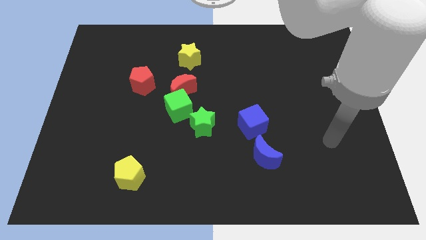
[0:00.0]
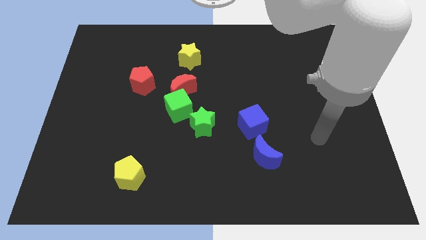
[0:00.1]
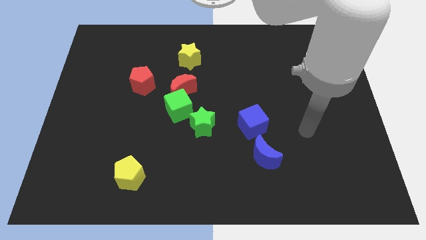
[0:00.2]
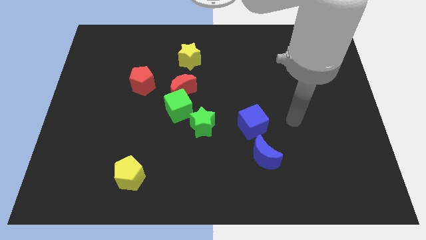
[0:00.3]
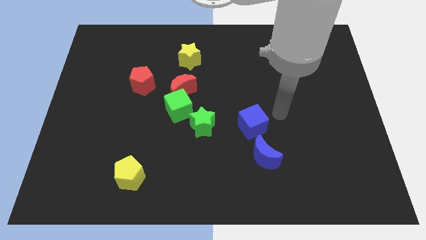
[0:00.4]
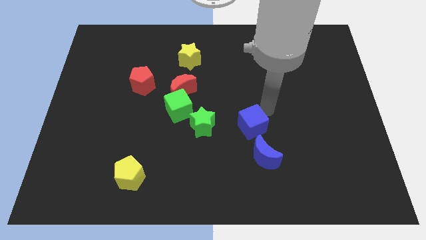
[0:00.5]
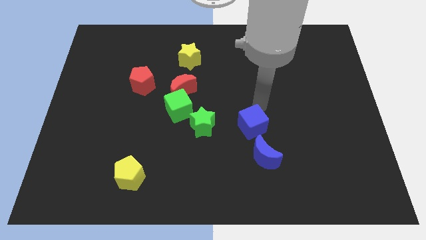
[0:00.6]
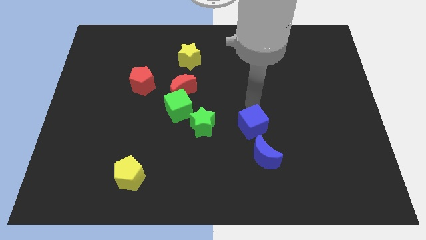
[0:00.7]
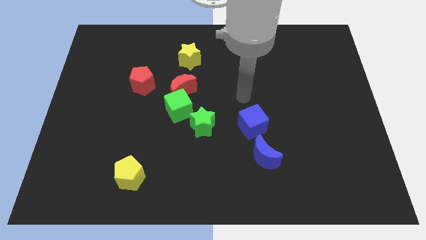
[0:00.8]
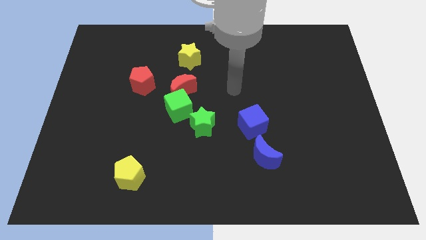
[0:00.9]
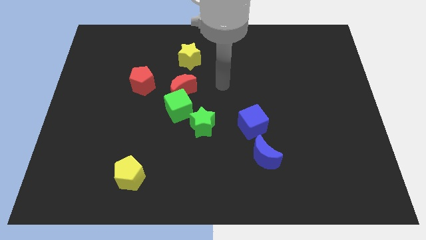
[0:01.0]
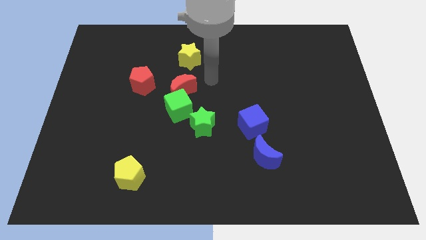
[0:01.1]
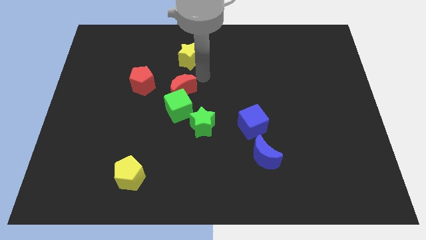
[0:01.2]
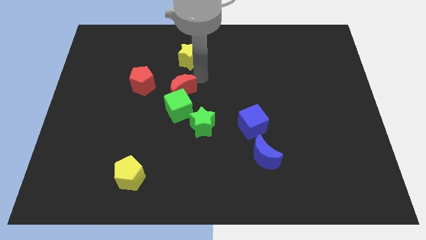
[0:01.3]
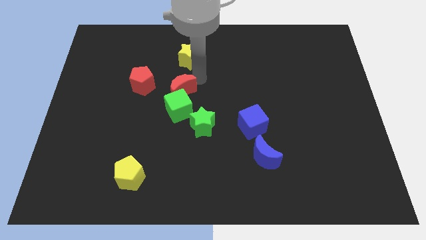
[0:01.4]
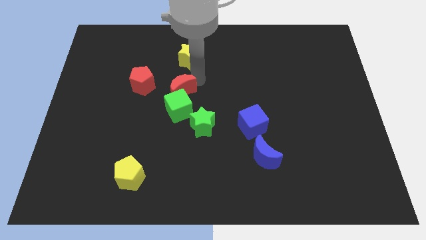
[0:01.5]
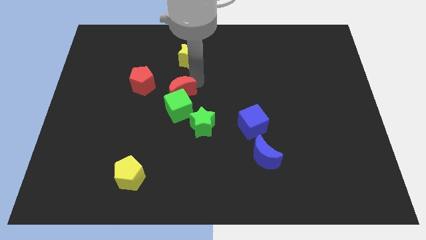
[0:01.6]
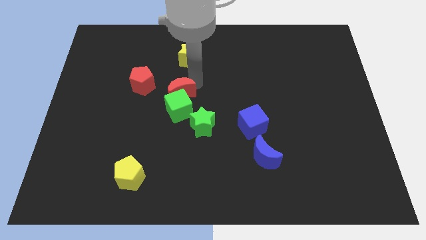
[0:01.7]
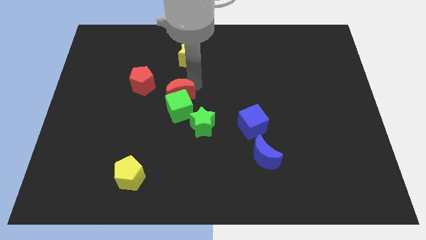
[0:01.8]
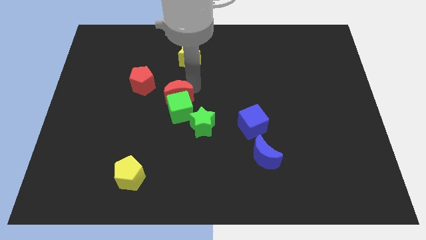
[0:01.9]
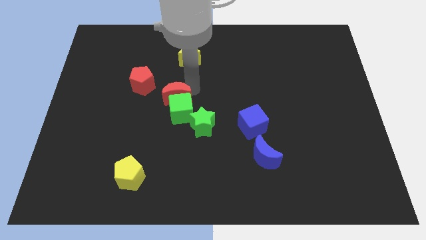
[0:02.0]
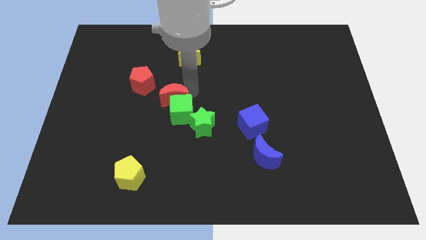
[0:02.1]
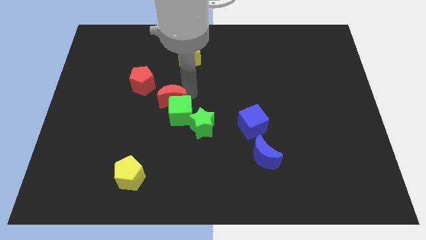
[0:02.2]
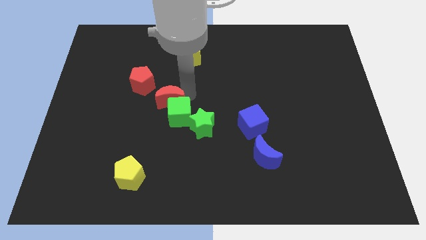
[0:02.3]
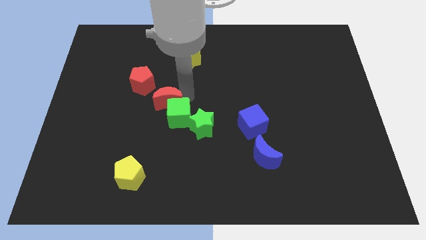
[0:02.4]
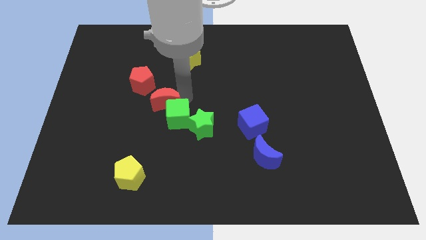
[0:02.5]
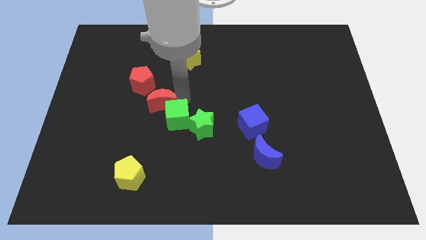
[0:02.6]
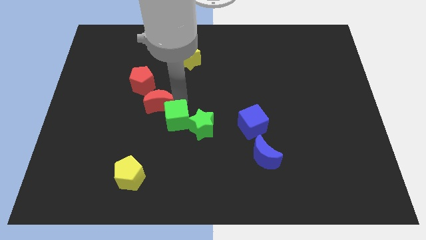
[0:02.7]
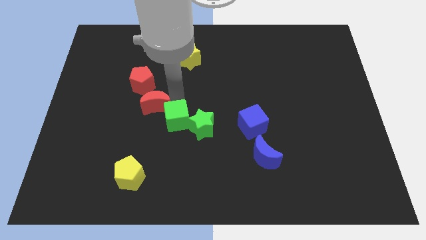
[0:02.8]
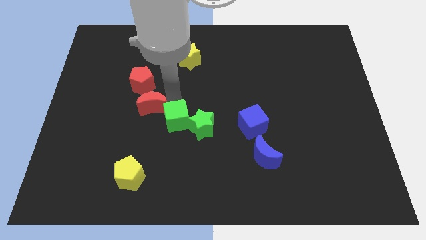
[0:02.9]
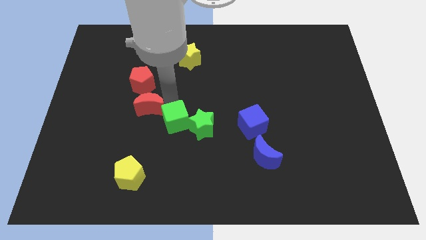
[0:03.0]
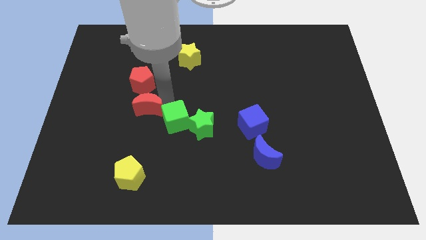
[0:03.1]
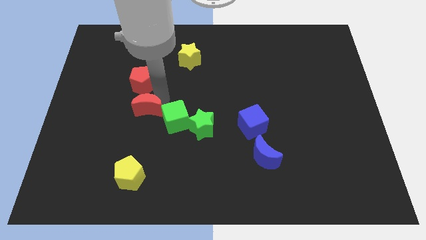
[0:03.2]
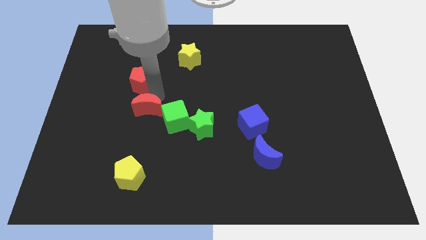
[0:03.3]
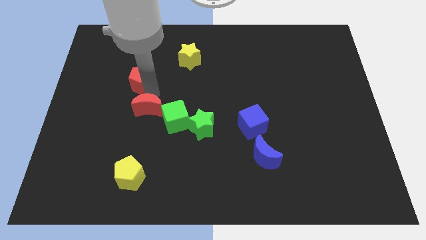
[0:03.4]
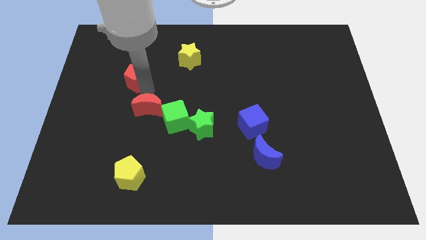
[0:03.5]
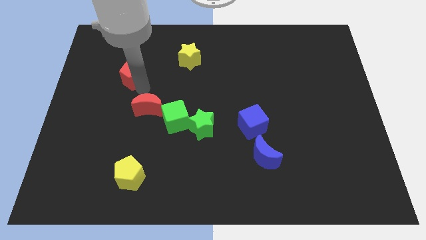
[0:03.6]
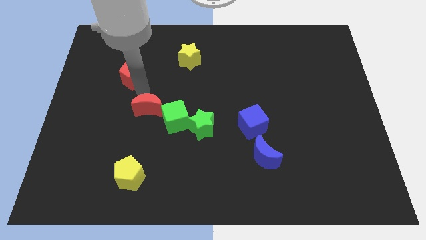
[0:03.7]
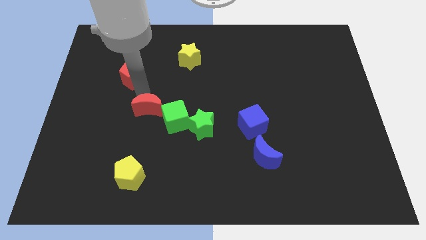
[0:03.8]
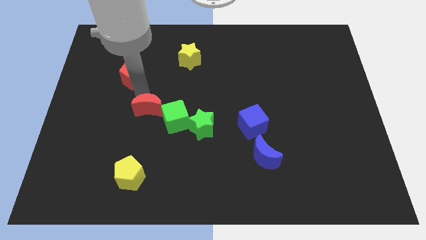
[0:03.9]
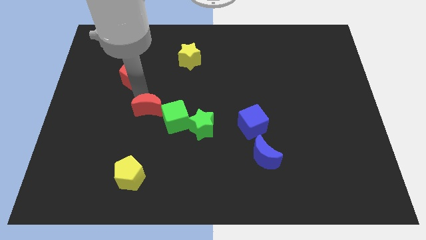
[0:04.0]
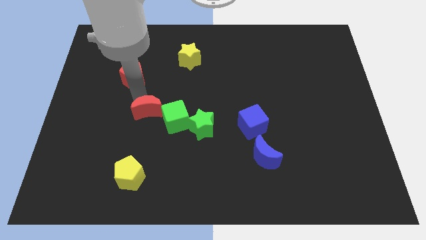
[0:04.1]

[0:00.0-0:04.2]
slide the red moon to the left side of the green star

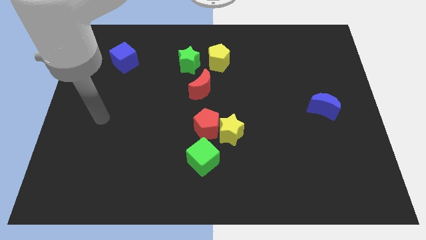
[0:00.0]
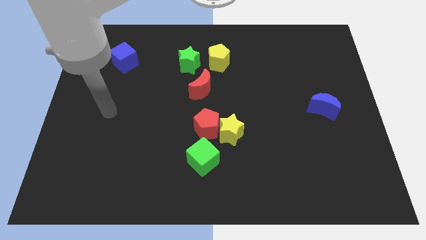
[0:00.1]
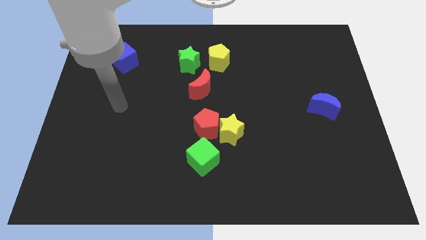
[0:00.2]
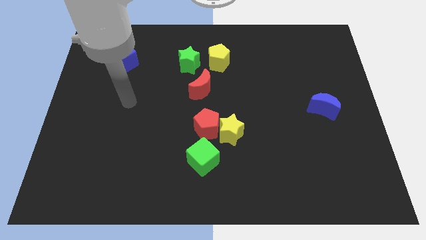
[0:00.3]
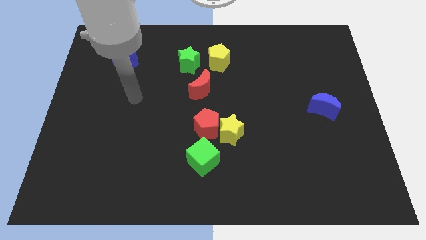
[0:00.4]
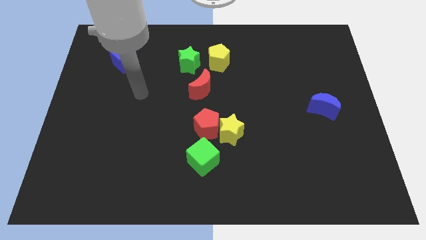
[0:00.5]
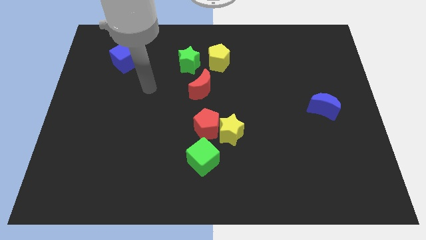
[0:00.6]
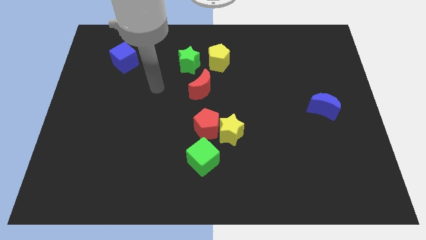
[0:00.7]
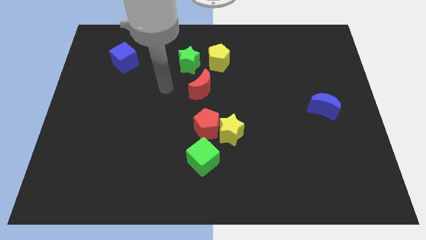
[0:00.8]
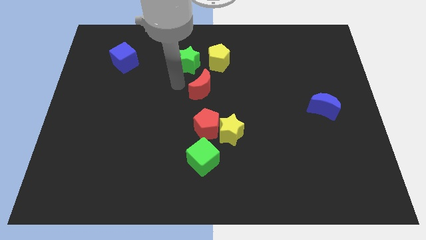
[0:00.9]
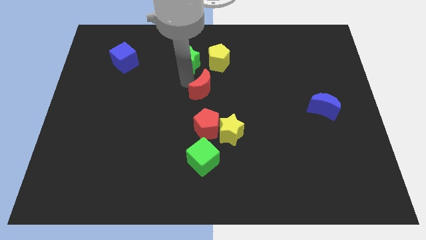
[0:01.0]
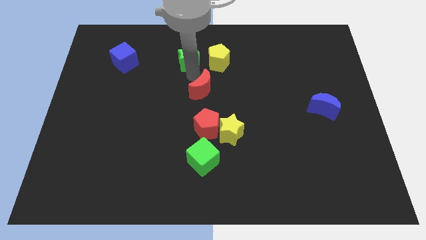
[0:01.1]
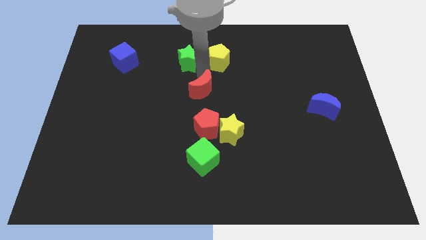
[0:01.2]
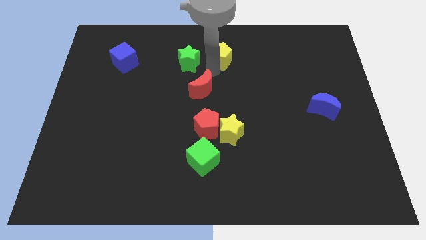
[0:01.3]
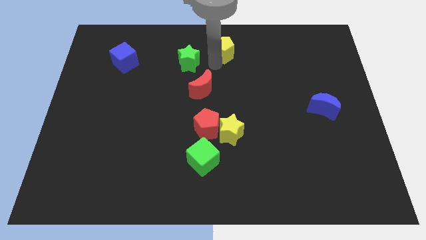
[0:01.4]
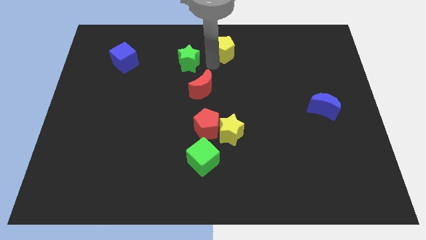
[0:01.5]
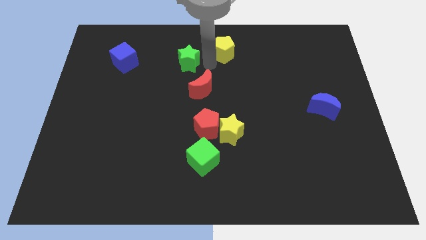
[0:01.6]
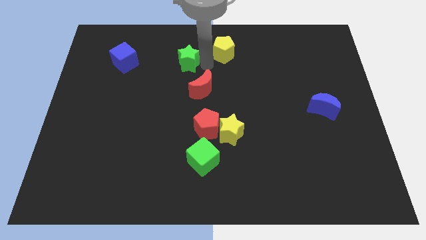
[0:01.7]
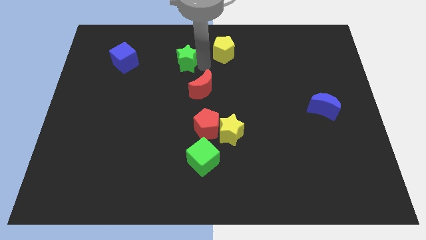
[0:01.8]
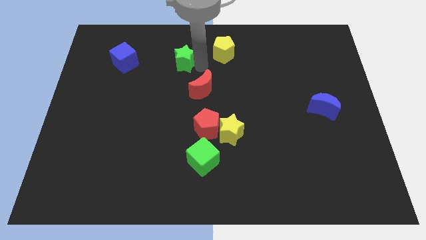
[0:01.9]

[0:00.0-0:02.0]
push the green star to the right of the blue cube

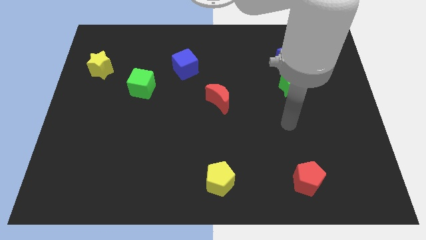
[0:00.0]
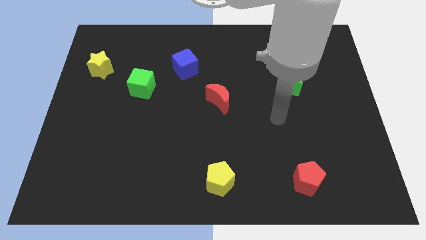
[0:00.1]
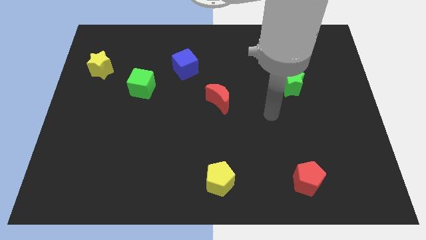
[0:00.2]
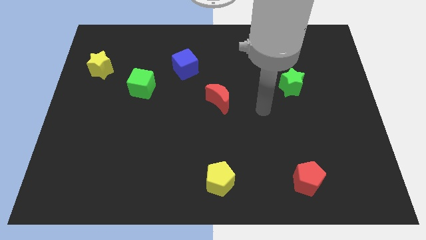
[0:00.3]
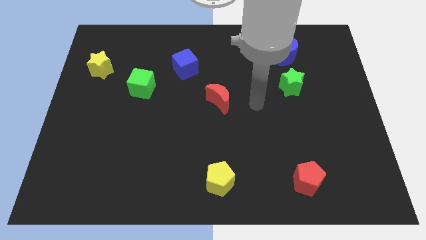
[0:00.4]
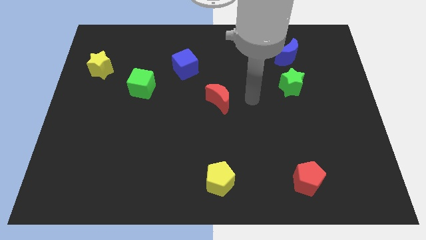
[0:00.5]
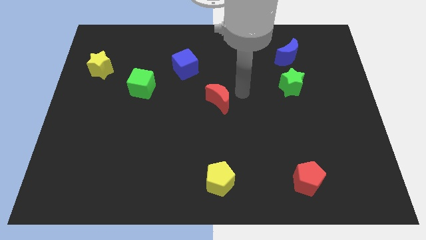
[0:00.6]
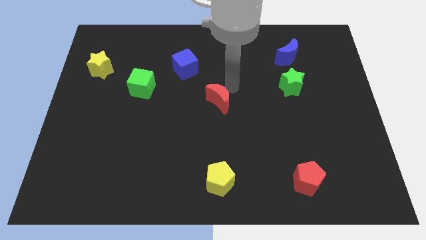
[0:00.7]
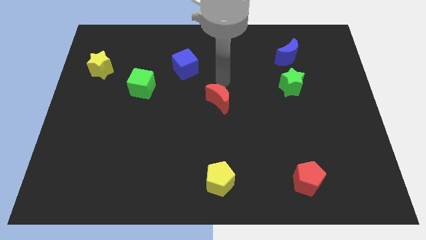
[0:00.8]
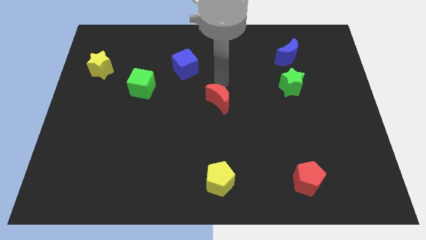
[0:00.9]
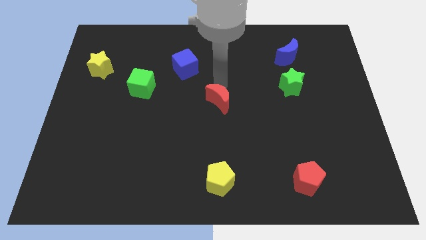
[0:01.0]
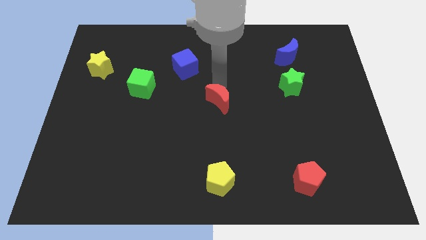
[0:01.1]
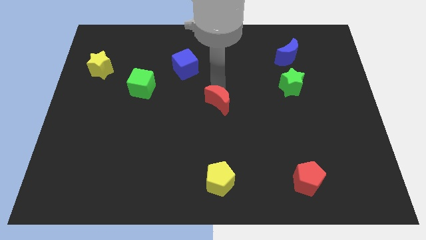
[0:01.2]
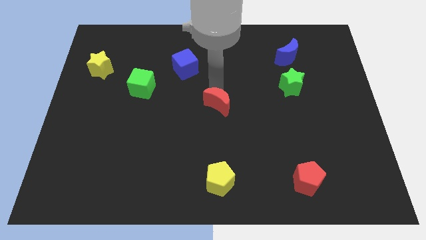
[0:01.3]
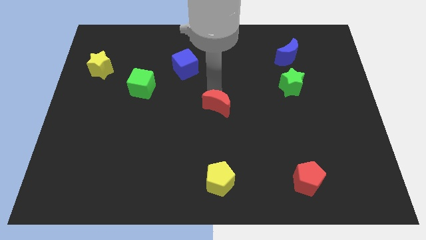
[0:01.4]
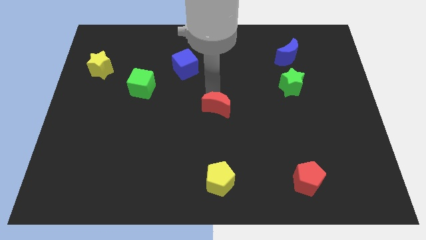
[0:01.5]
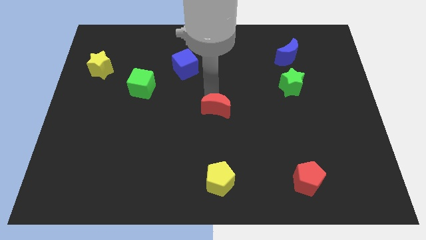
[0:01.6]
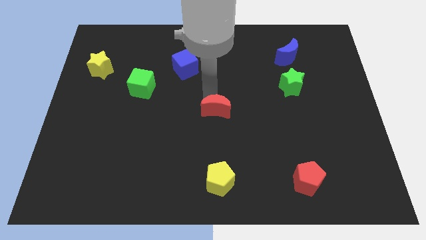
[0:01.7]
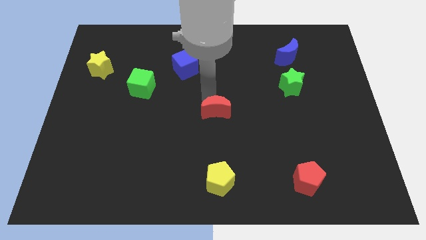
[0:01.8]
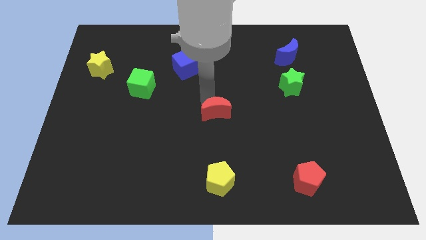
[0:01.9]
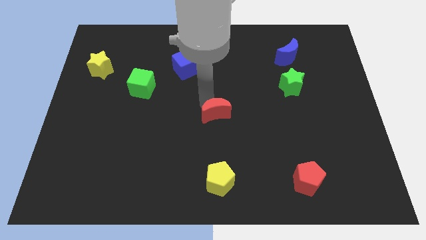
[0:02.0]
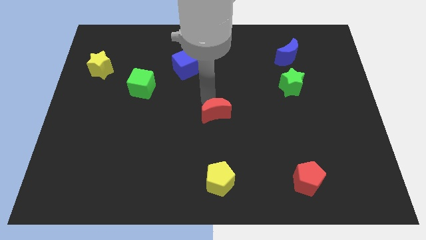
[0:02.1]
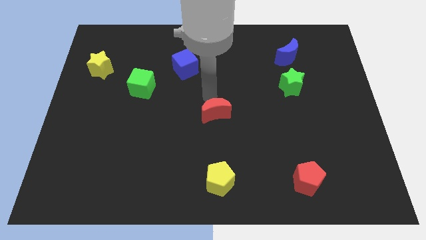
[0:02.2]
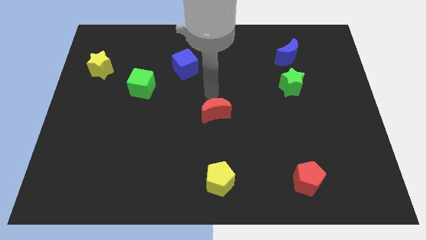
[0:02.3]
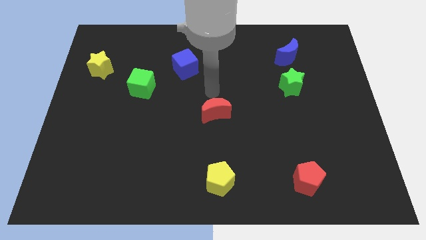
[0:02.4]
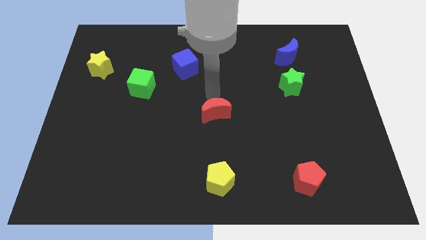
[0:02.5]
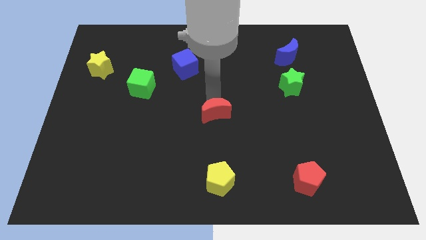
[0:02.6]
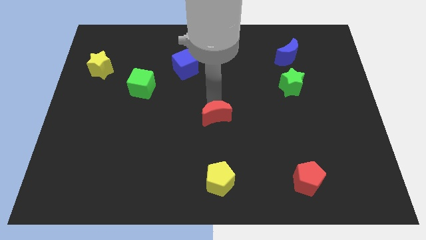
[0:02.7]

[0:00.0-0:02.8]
push the red moon to the top of the yellow pentagon
